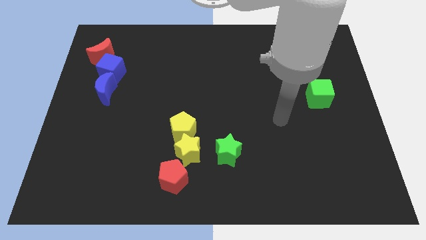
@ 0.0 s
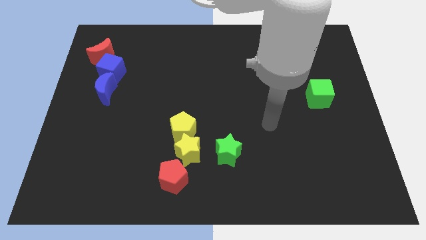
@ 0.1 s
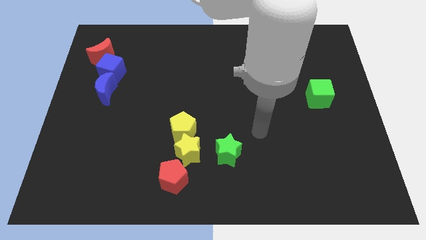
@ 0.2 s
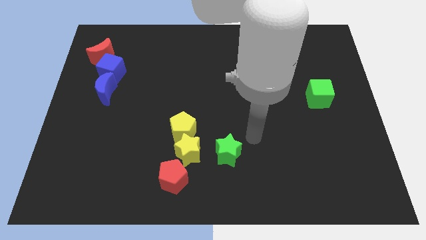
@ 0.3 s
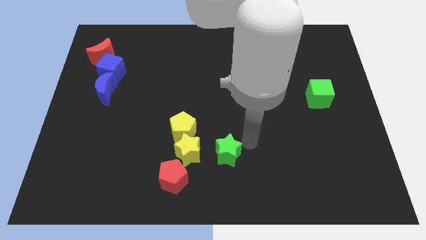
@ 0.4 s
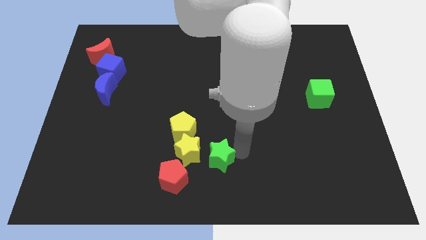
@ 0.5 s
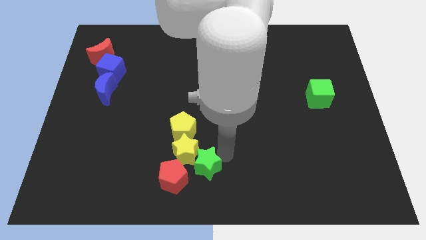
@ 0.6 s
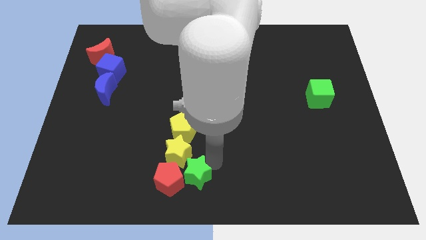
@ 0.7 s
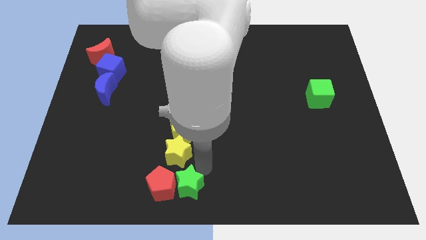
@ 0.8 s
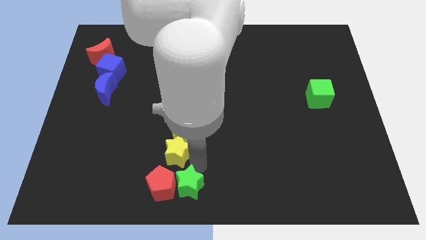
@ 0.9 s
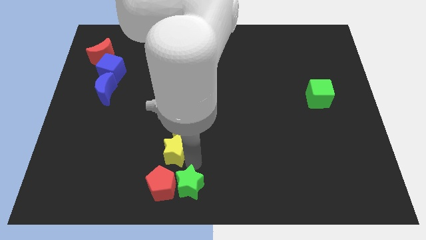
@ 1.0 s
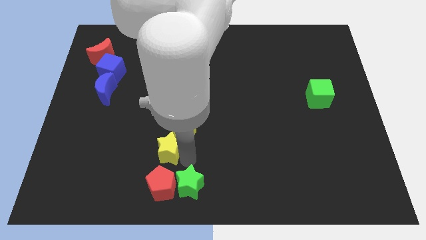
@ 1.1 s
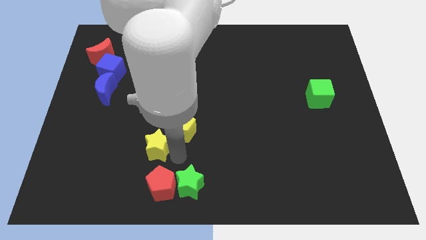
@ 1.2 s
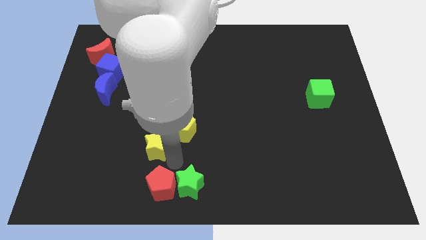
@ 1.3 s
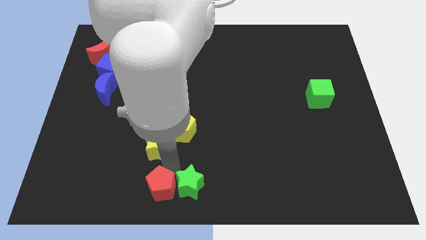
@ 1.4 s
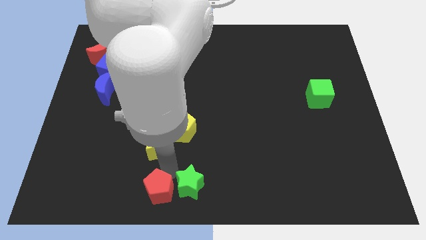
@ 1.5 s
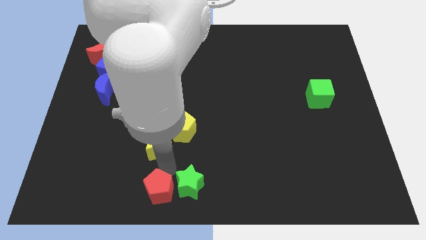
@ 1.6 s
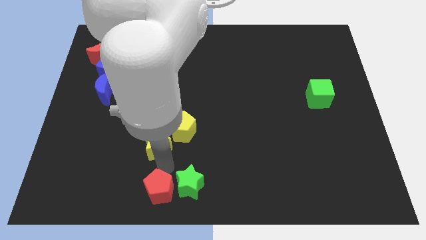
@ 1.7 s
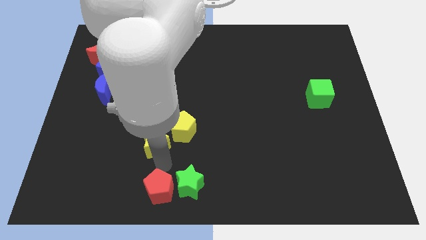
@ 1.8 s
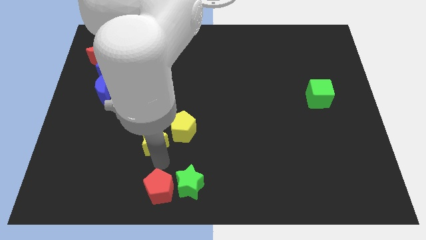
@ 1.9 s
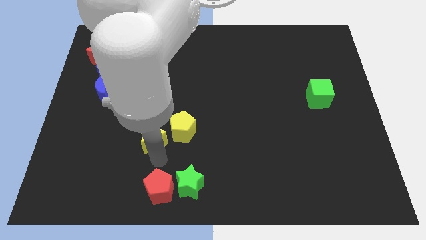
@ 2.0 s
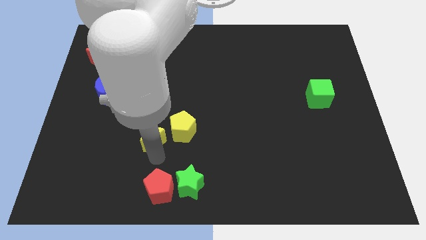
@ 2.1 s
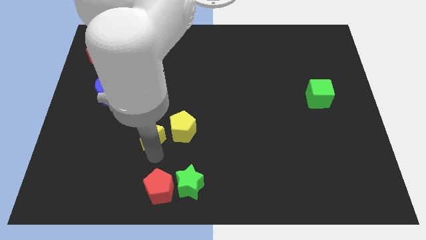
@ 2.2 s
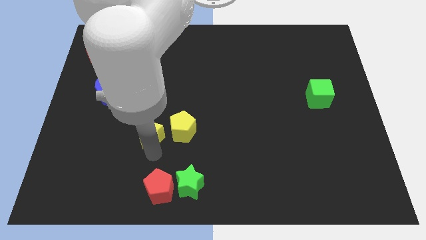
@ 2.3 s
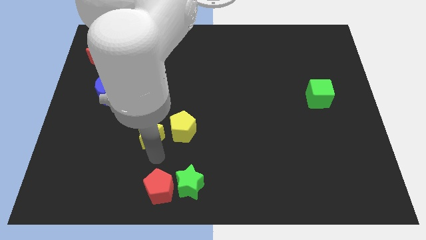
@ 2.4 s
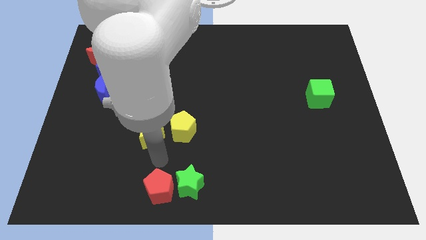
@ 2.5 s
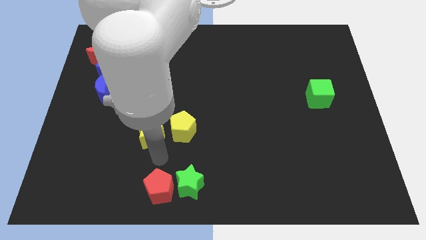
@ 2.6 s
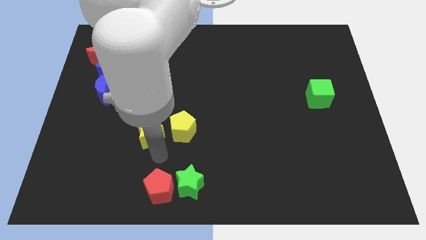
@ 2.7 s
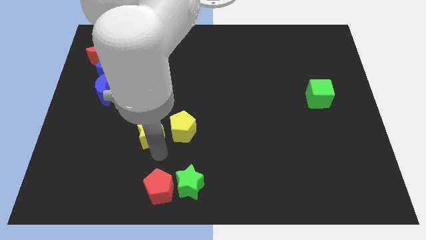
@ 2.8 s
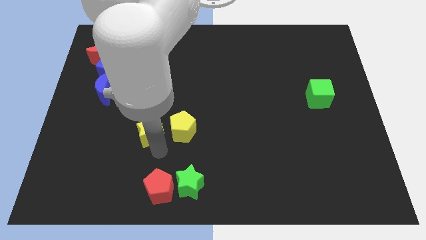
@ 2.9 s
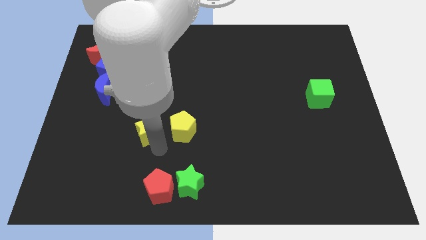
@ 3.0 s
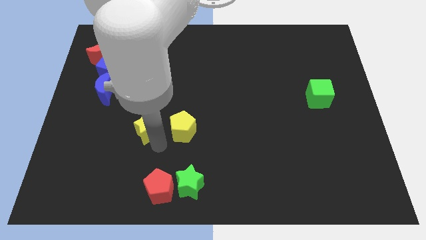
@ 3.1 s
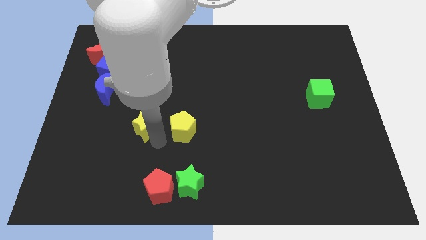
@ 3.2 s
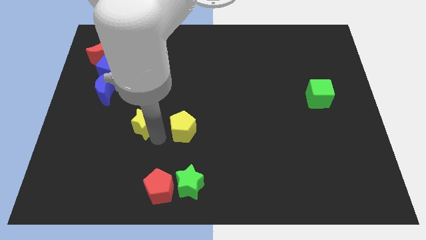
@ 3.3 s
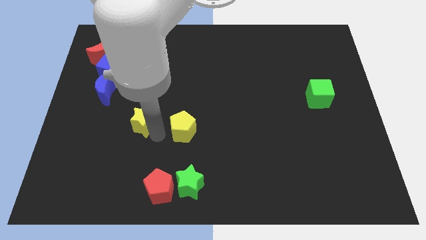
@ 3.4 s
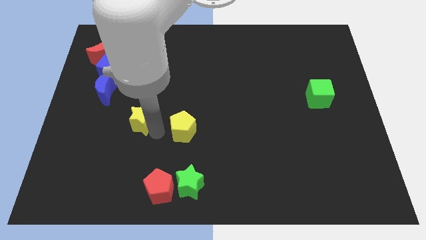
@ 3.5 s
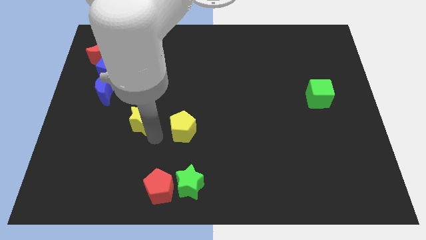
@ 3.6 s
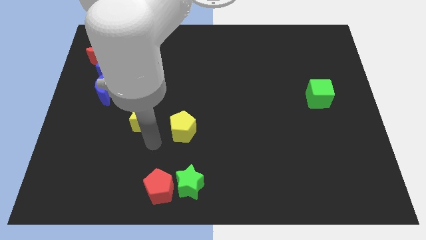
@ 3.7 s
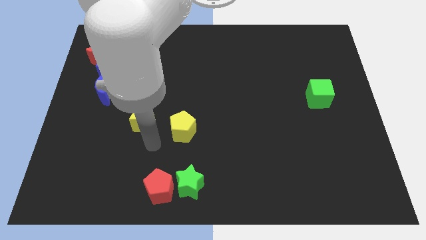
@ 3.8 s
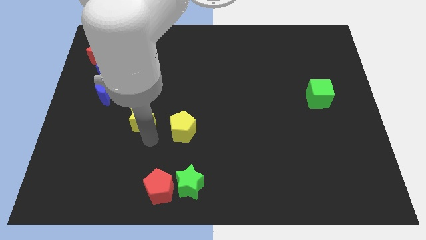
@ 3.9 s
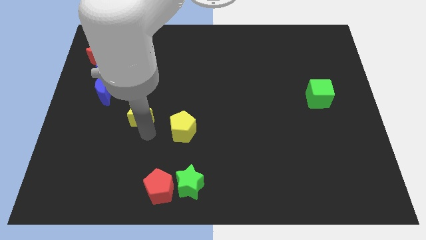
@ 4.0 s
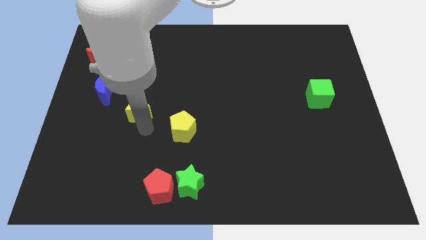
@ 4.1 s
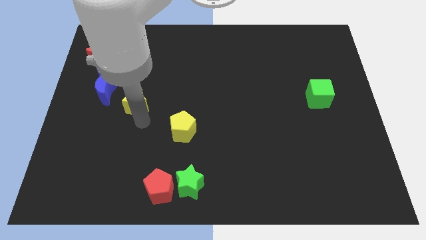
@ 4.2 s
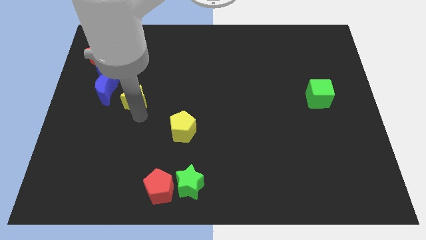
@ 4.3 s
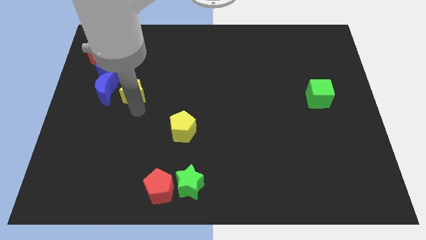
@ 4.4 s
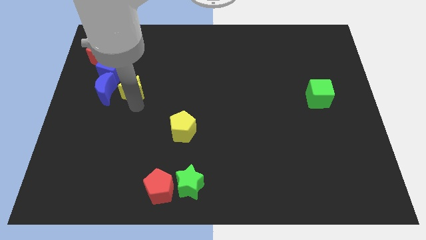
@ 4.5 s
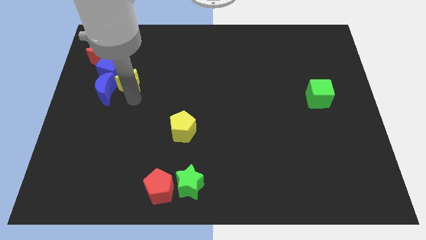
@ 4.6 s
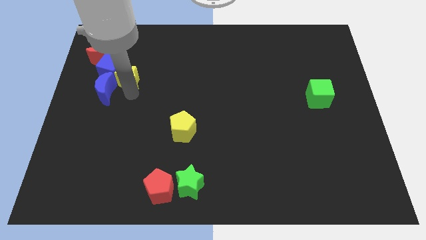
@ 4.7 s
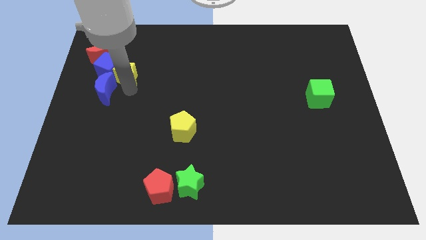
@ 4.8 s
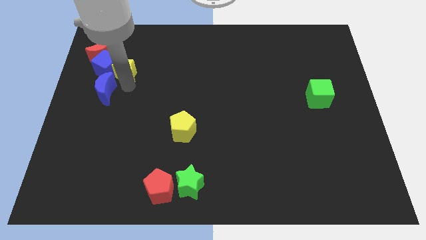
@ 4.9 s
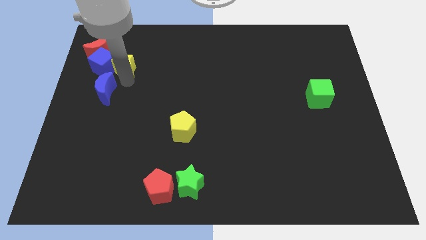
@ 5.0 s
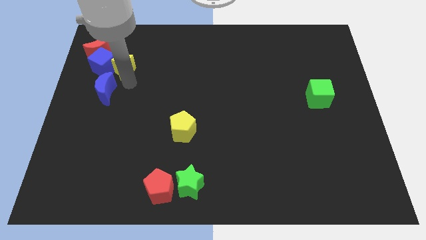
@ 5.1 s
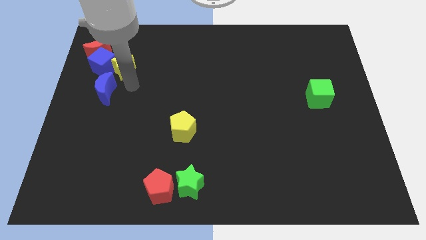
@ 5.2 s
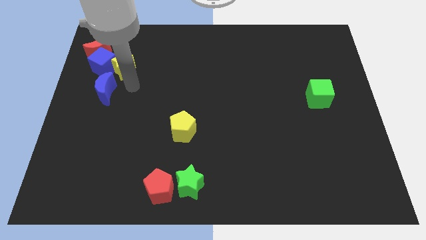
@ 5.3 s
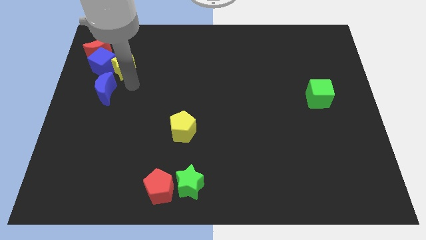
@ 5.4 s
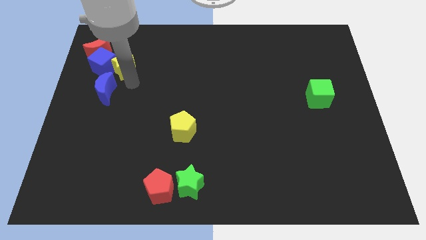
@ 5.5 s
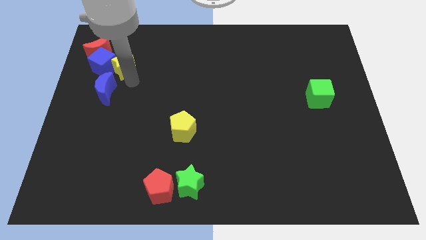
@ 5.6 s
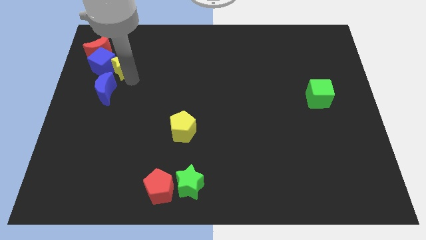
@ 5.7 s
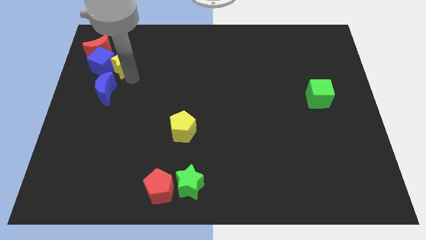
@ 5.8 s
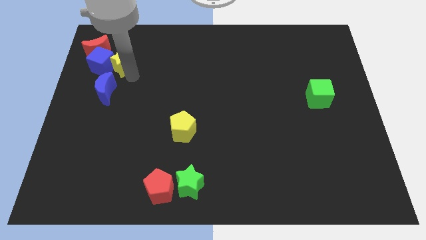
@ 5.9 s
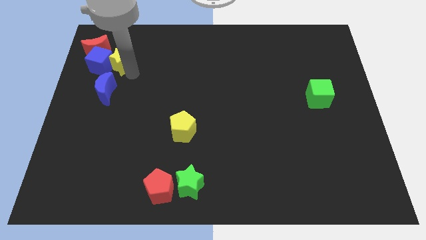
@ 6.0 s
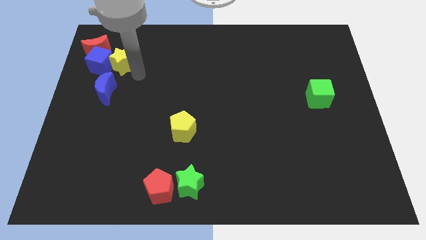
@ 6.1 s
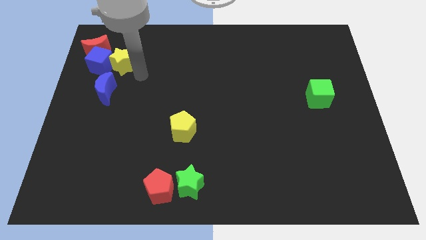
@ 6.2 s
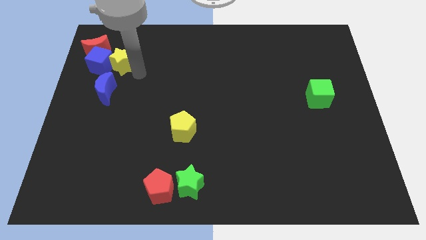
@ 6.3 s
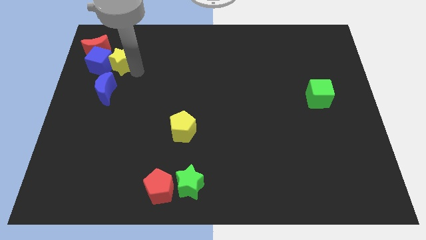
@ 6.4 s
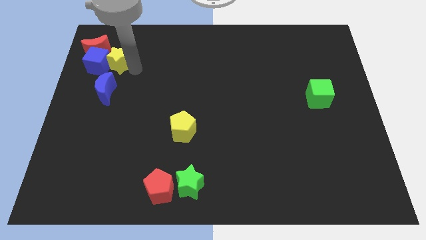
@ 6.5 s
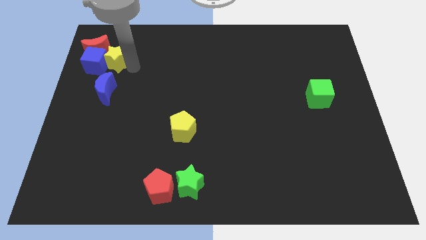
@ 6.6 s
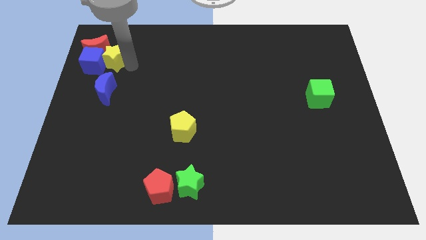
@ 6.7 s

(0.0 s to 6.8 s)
push the yellow star to the red moon

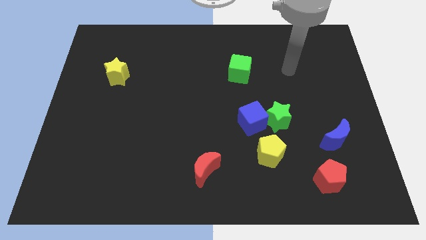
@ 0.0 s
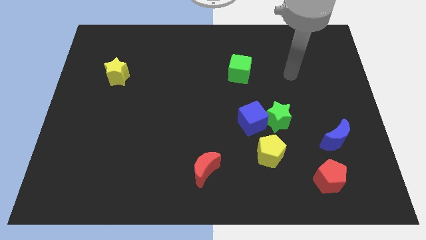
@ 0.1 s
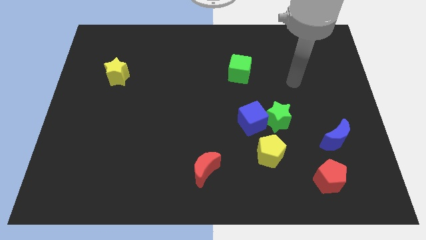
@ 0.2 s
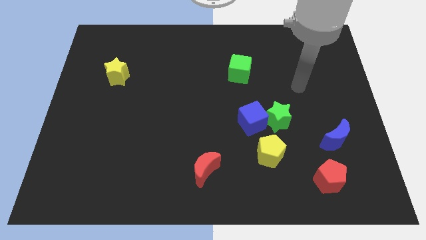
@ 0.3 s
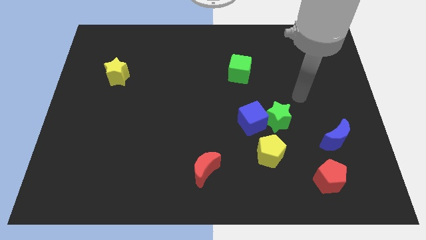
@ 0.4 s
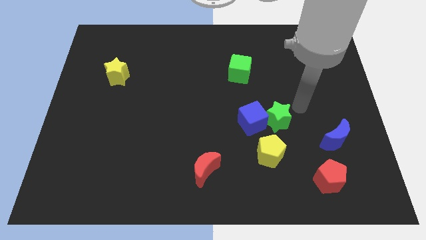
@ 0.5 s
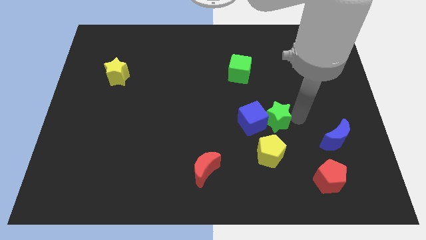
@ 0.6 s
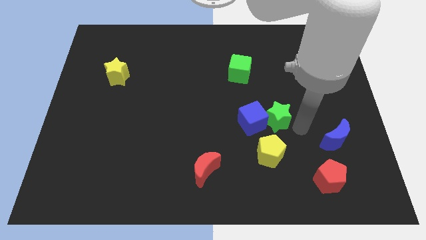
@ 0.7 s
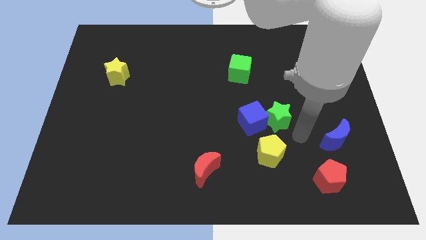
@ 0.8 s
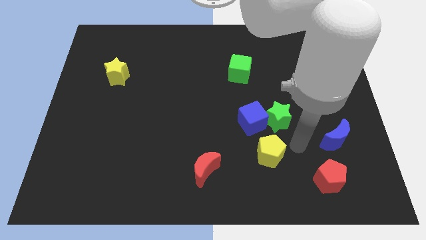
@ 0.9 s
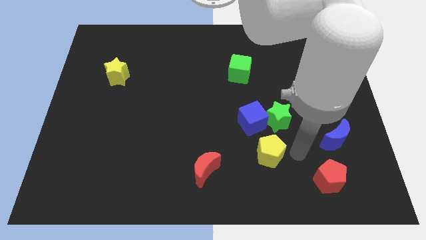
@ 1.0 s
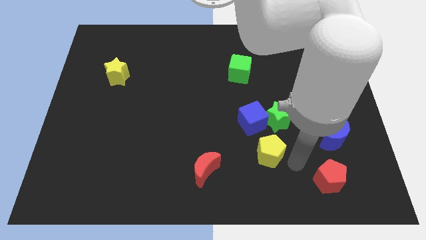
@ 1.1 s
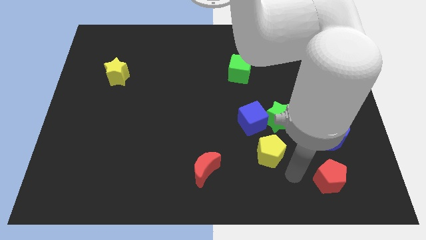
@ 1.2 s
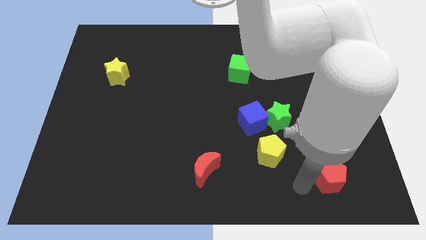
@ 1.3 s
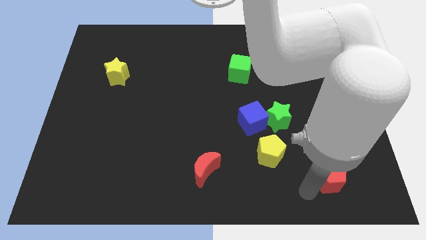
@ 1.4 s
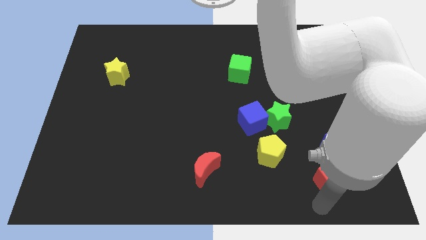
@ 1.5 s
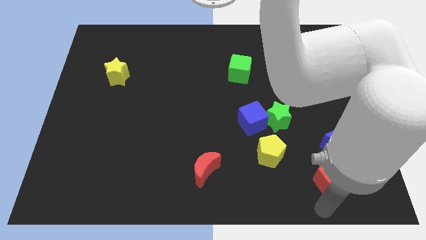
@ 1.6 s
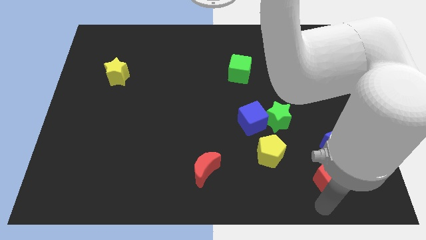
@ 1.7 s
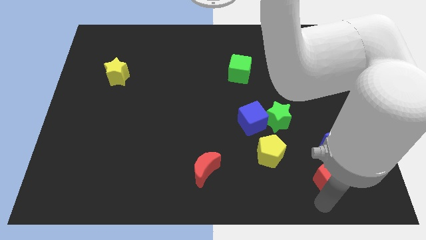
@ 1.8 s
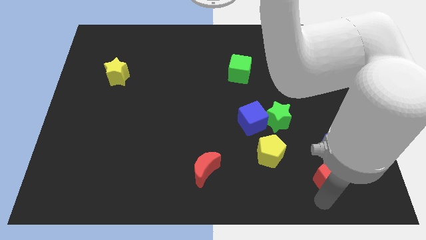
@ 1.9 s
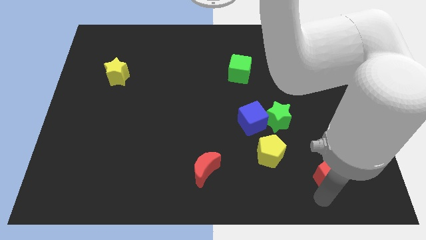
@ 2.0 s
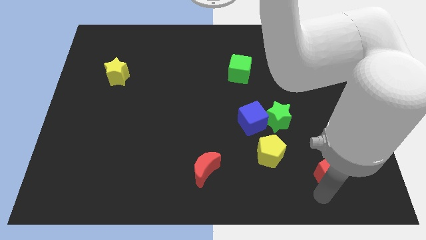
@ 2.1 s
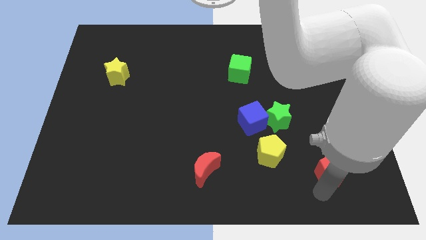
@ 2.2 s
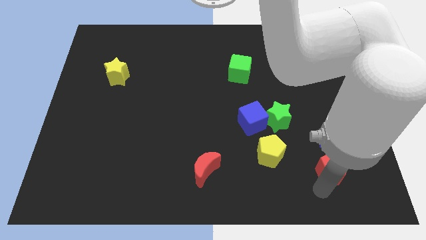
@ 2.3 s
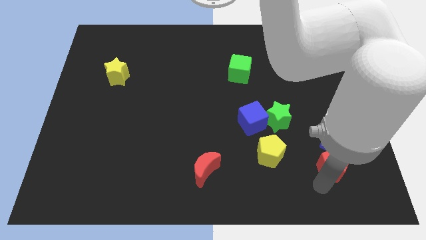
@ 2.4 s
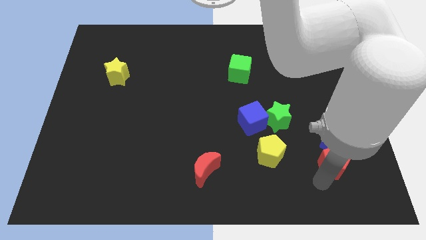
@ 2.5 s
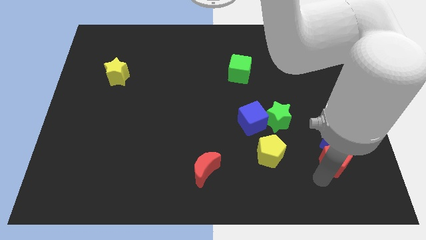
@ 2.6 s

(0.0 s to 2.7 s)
move the red pentagon to the blue moon
